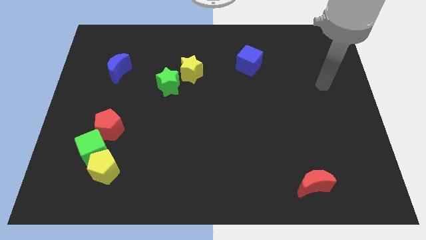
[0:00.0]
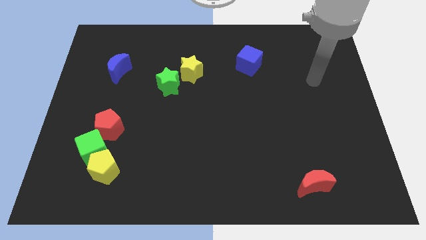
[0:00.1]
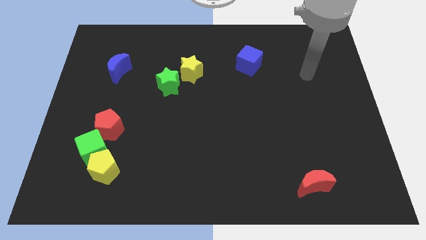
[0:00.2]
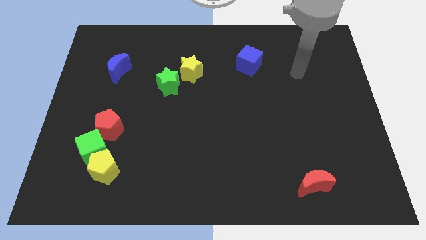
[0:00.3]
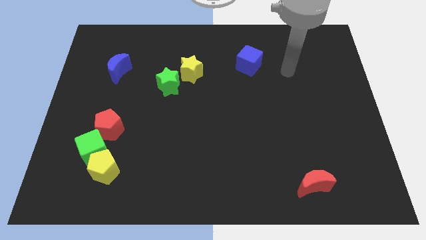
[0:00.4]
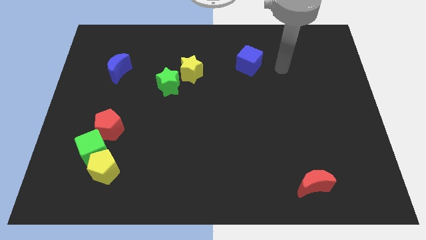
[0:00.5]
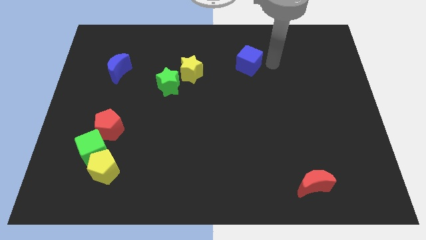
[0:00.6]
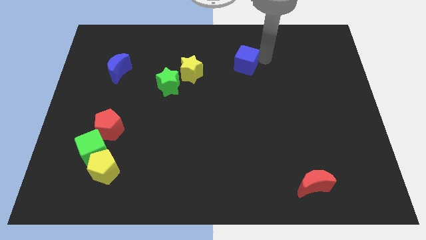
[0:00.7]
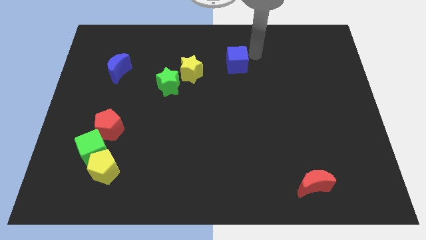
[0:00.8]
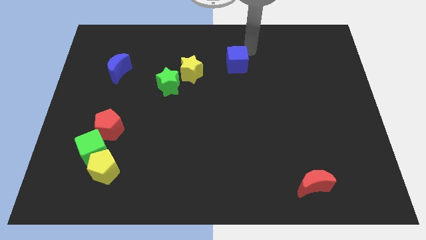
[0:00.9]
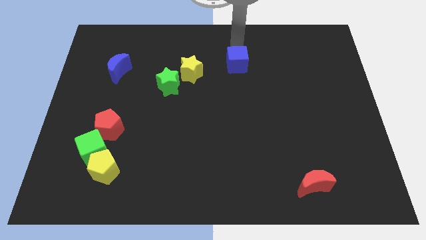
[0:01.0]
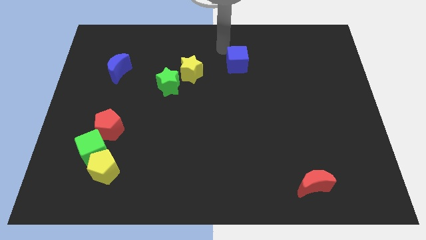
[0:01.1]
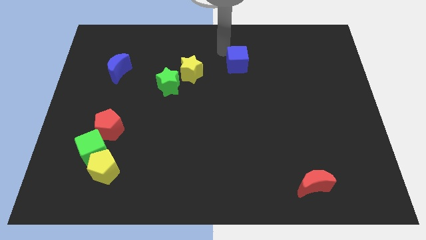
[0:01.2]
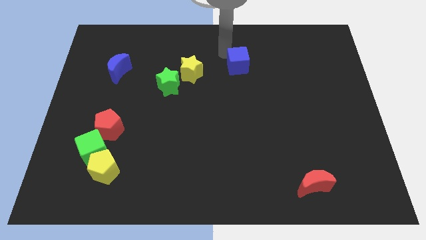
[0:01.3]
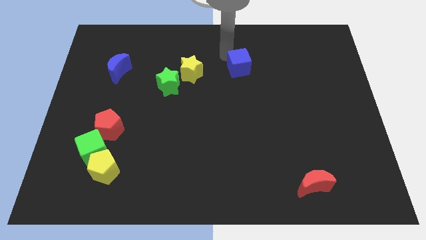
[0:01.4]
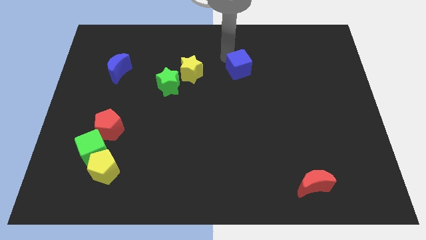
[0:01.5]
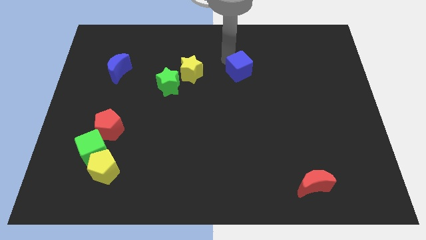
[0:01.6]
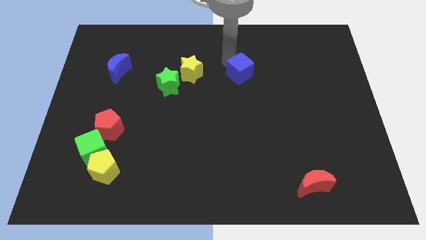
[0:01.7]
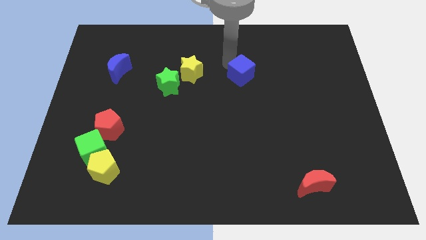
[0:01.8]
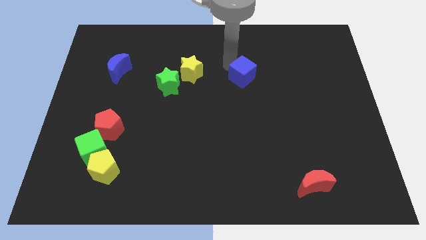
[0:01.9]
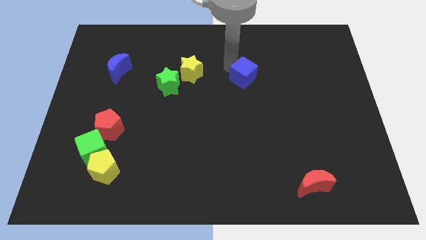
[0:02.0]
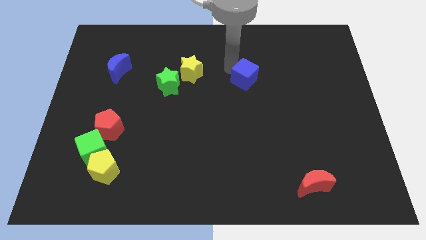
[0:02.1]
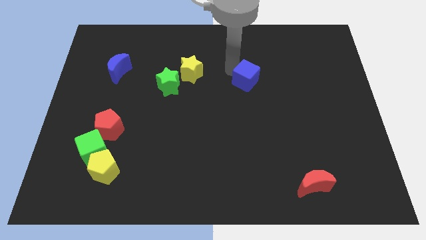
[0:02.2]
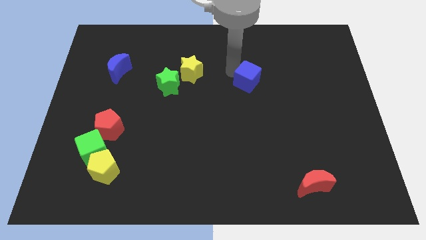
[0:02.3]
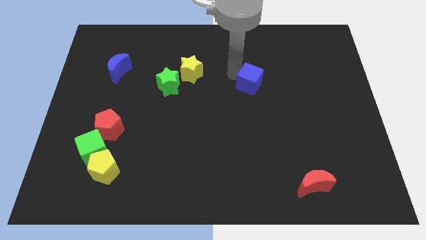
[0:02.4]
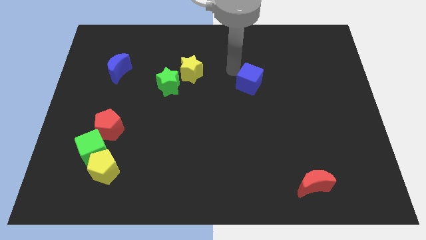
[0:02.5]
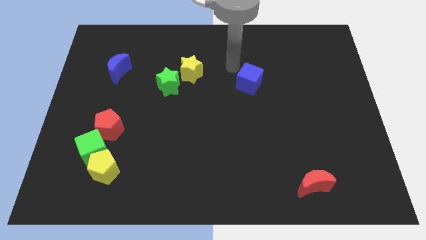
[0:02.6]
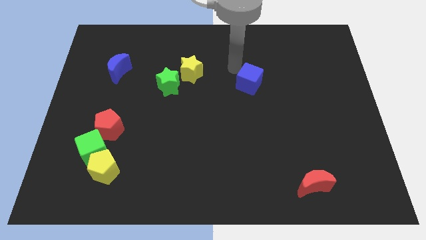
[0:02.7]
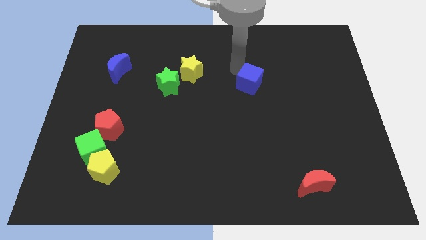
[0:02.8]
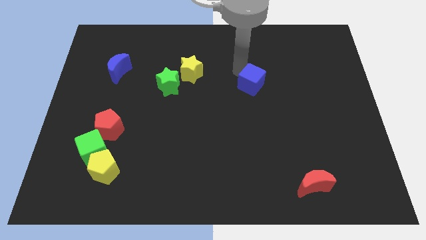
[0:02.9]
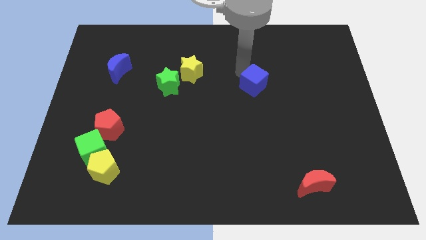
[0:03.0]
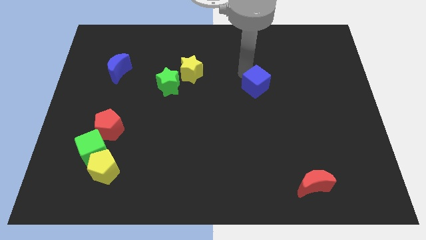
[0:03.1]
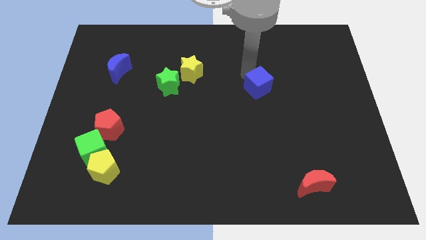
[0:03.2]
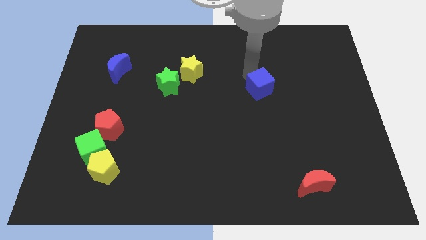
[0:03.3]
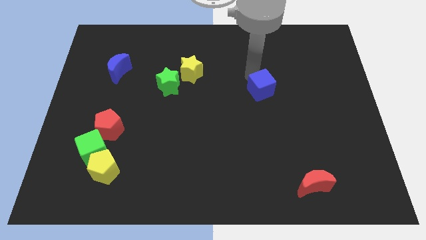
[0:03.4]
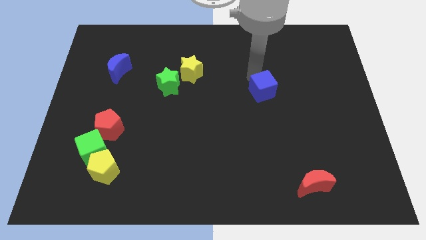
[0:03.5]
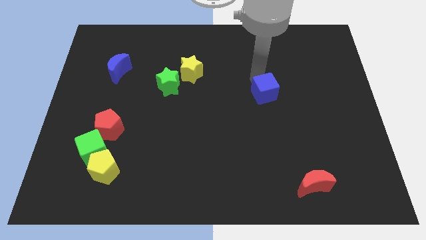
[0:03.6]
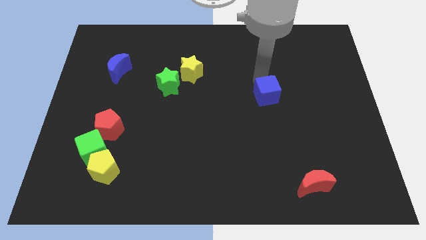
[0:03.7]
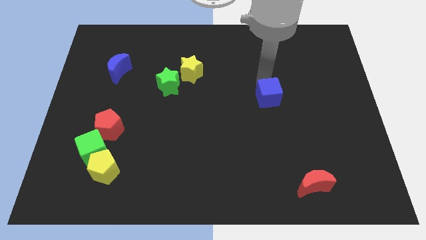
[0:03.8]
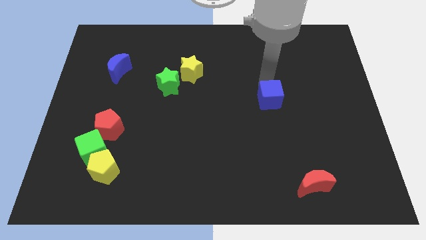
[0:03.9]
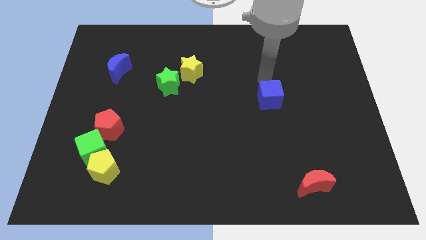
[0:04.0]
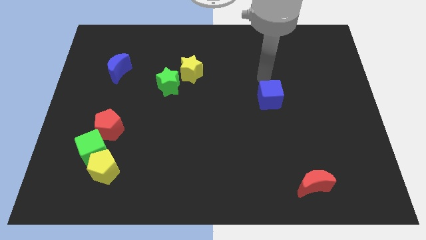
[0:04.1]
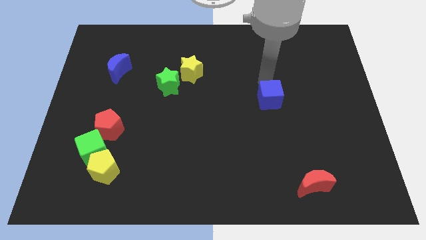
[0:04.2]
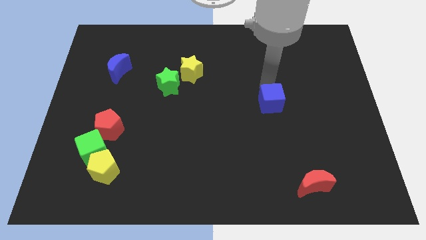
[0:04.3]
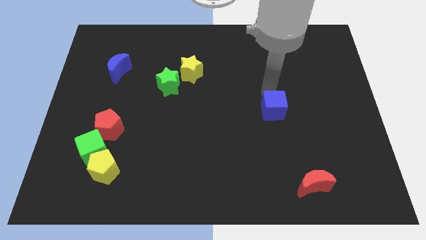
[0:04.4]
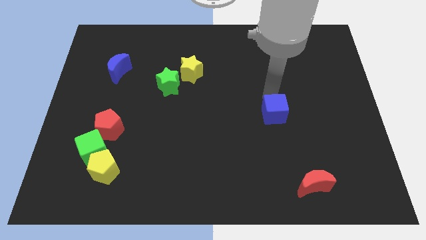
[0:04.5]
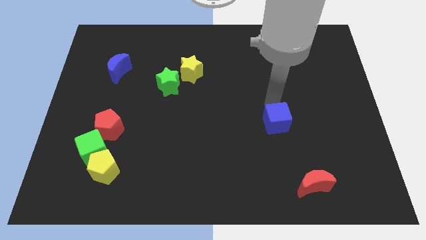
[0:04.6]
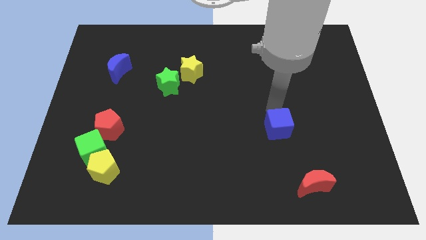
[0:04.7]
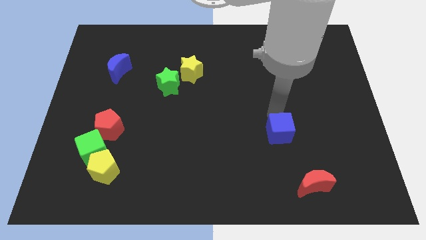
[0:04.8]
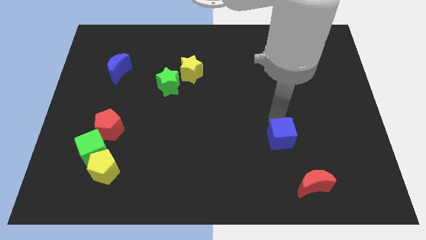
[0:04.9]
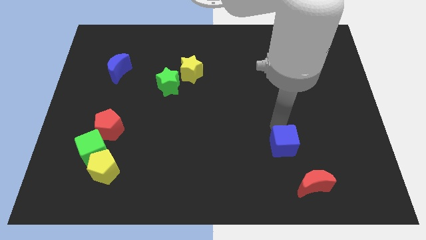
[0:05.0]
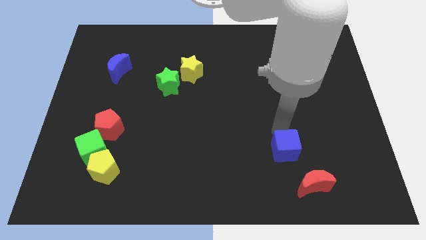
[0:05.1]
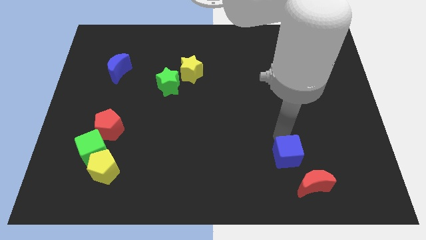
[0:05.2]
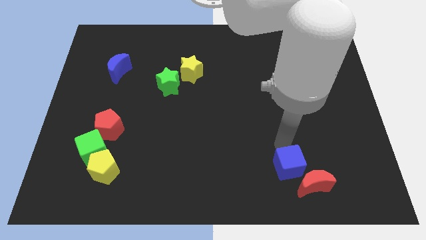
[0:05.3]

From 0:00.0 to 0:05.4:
put the blue cube next to the red moon

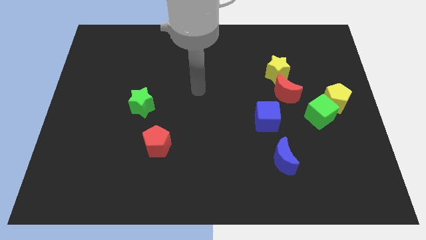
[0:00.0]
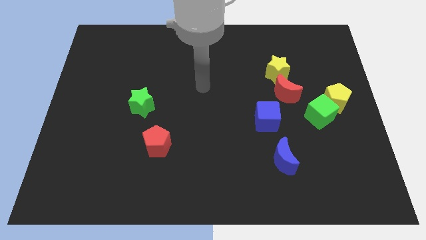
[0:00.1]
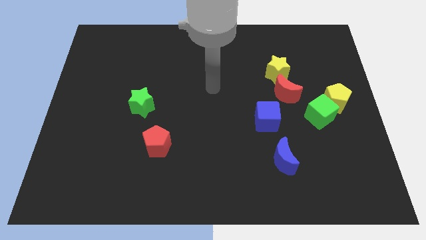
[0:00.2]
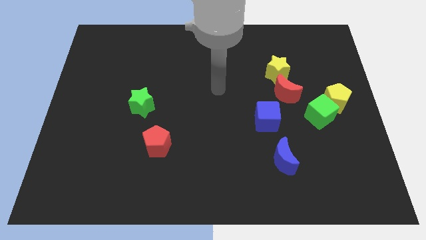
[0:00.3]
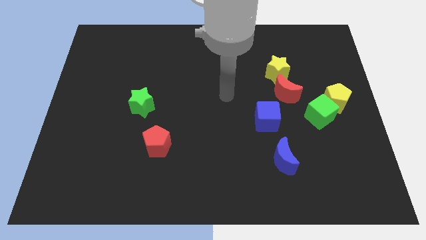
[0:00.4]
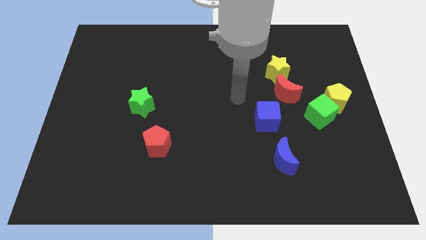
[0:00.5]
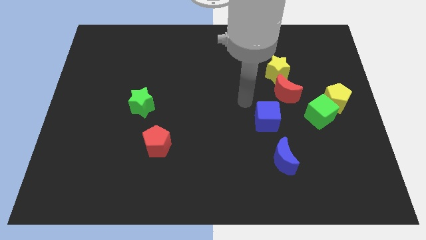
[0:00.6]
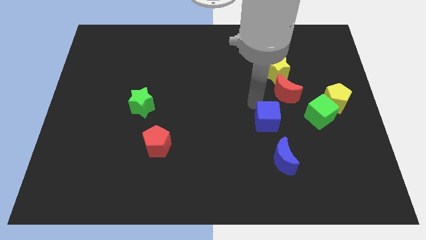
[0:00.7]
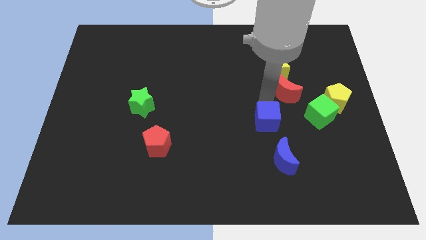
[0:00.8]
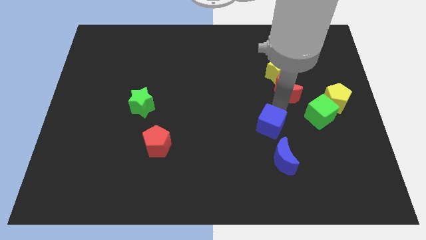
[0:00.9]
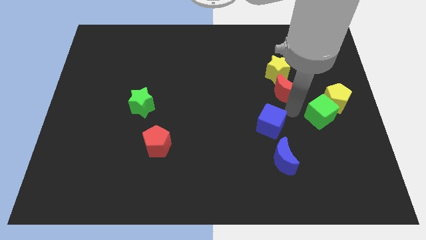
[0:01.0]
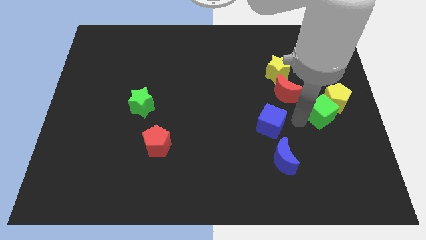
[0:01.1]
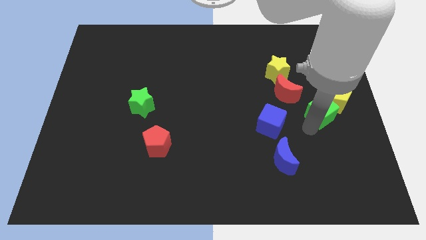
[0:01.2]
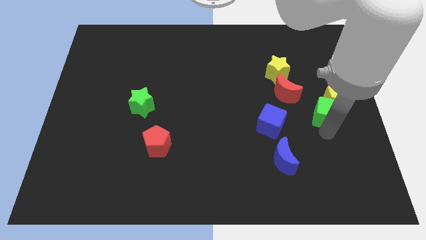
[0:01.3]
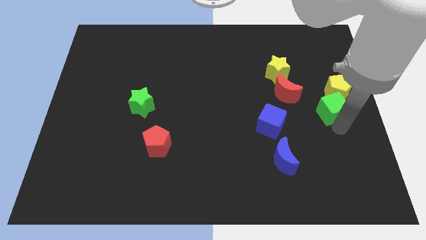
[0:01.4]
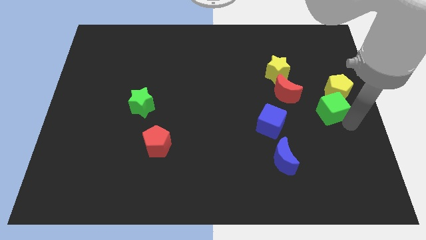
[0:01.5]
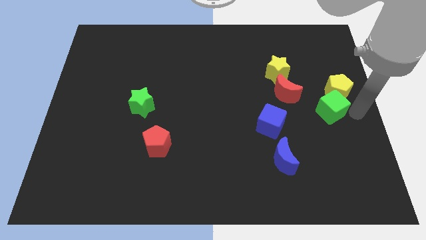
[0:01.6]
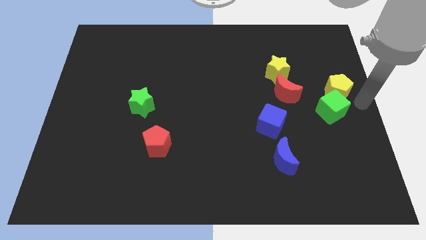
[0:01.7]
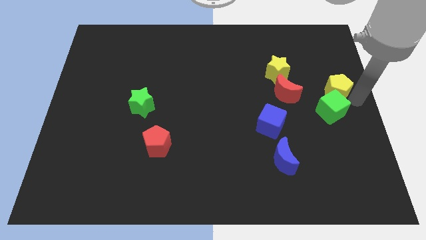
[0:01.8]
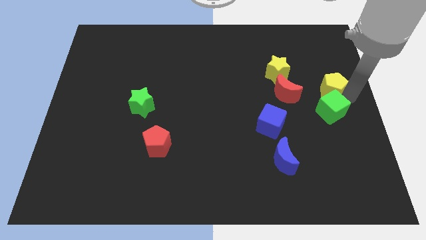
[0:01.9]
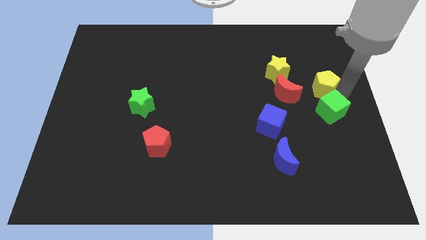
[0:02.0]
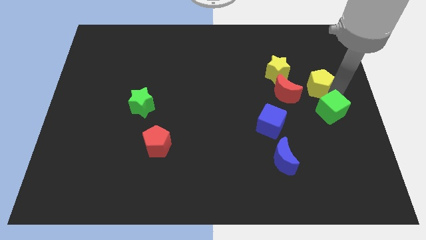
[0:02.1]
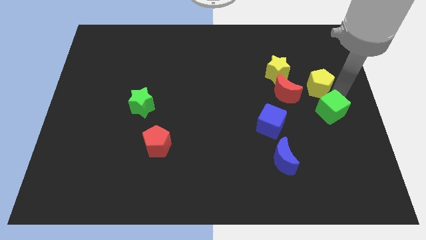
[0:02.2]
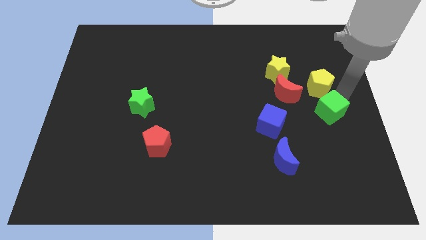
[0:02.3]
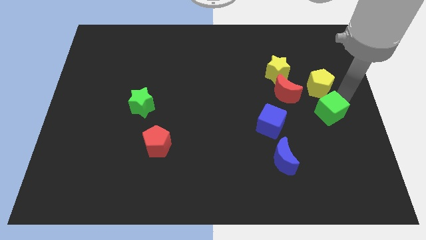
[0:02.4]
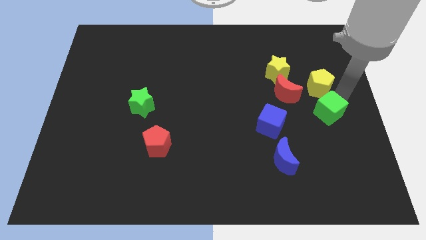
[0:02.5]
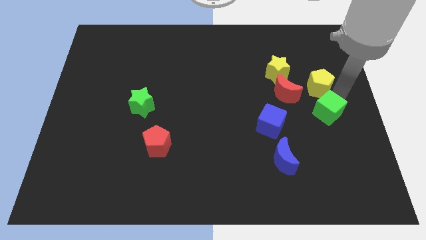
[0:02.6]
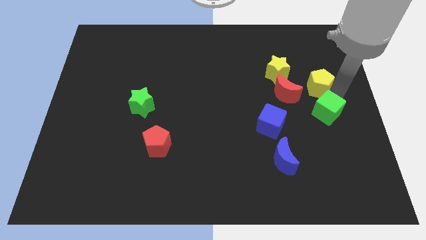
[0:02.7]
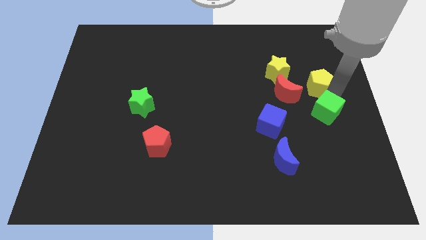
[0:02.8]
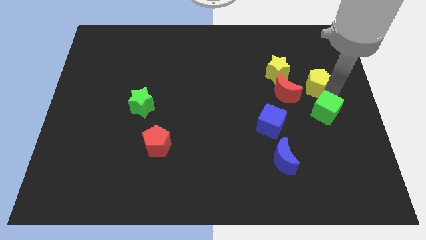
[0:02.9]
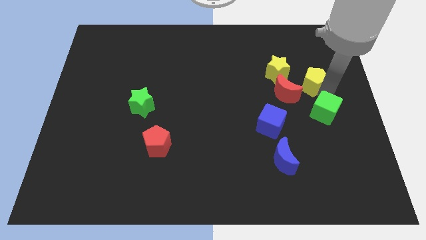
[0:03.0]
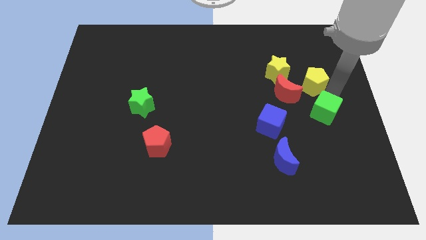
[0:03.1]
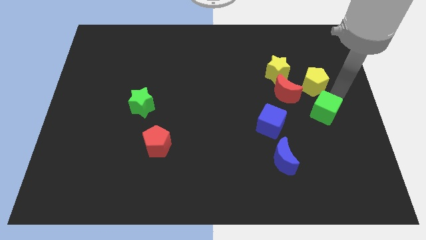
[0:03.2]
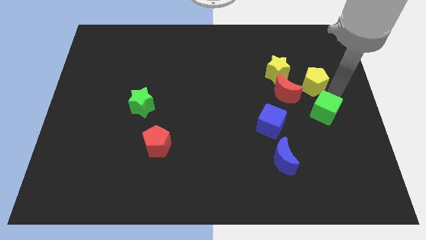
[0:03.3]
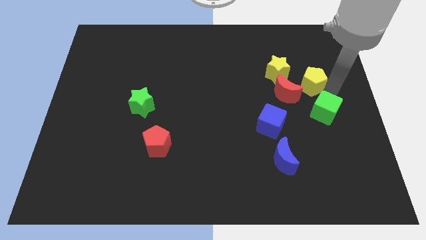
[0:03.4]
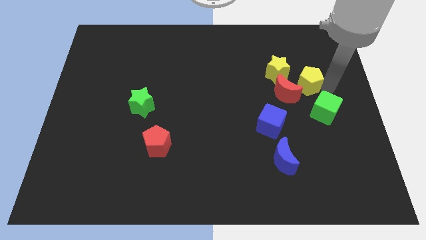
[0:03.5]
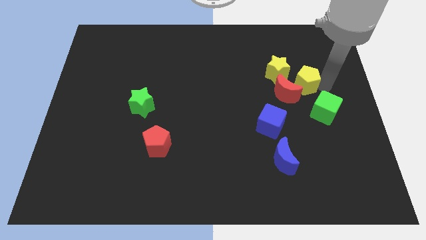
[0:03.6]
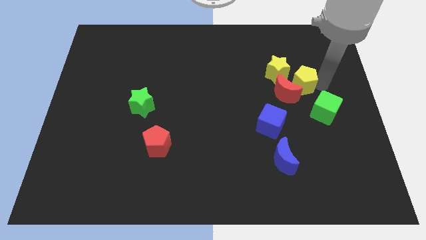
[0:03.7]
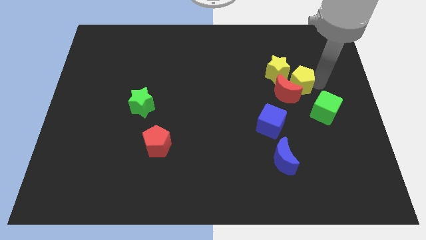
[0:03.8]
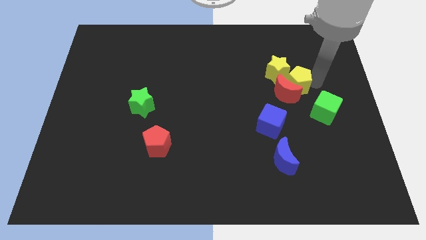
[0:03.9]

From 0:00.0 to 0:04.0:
slide the yellow pentagon next to the yellow star
